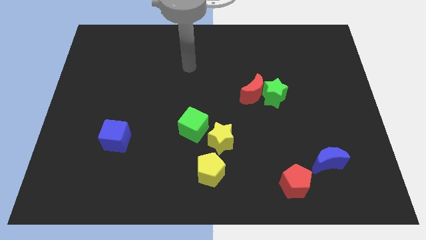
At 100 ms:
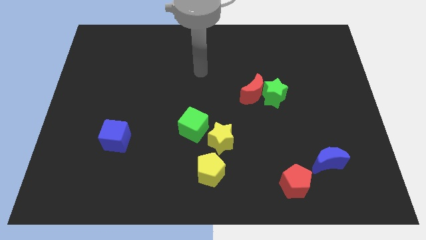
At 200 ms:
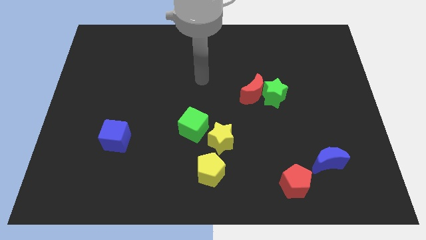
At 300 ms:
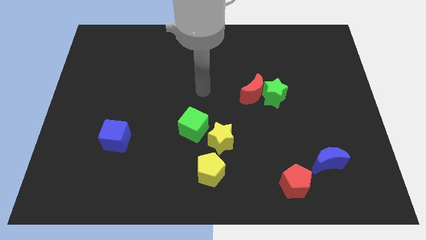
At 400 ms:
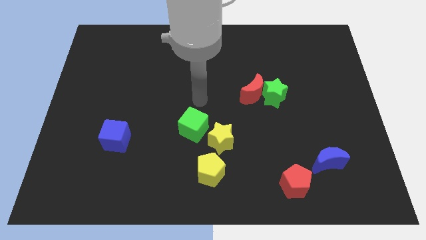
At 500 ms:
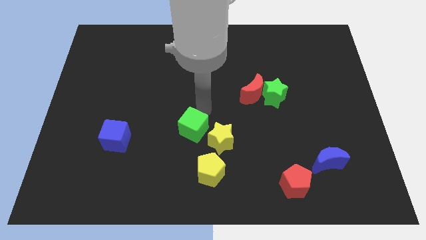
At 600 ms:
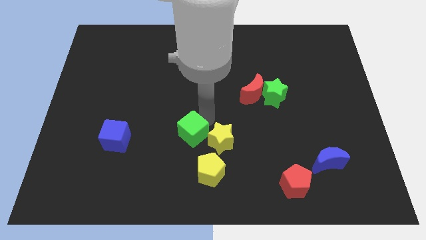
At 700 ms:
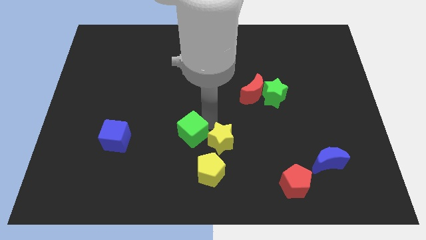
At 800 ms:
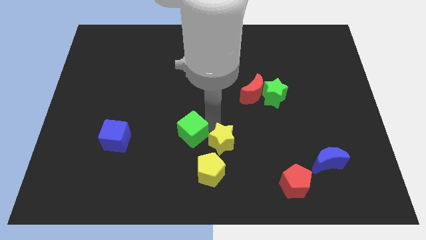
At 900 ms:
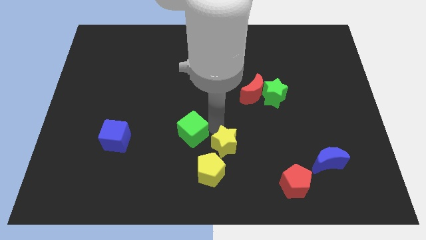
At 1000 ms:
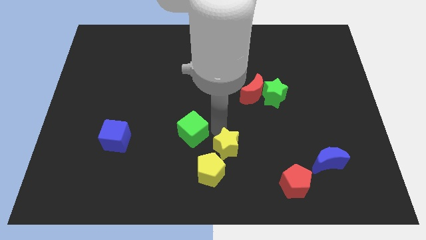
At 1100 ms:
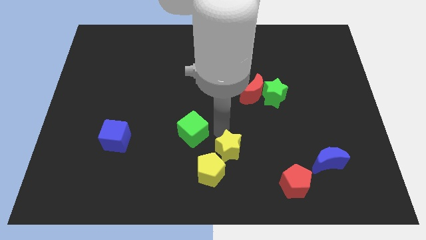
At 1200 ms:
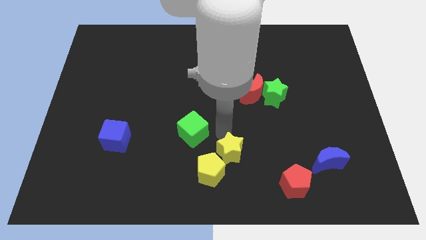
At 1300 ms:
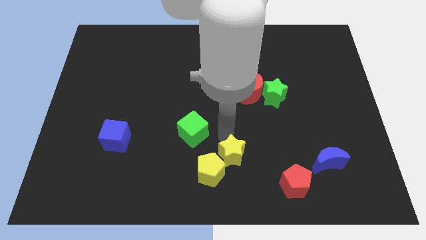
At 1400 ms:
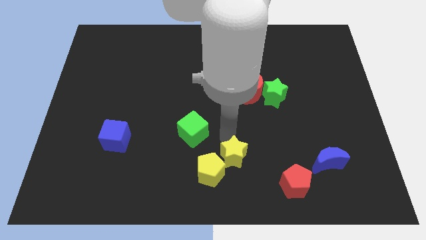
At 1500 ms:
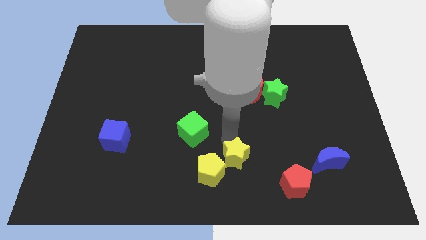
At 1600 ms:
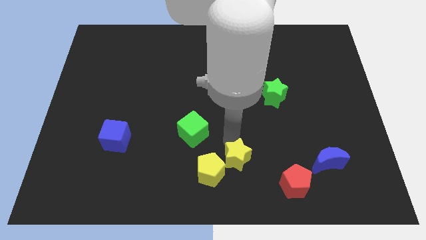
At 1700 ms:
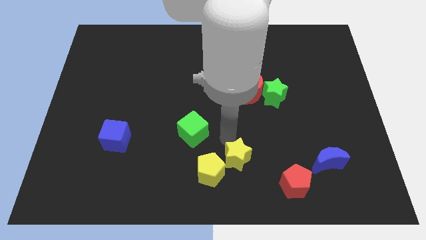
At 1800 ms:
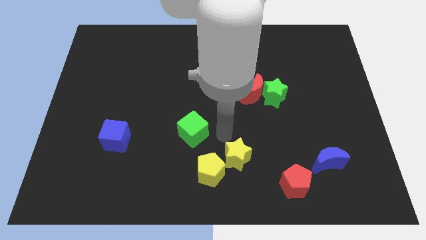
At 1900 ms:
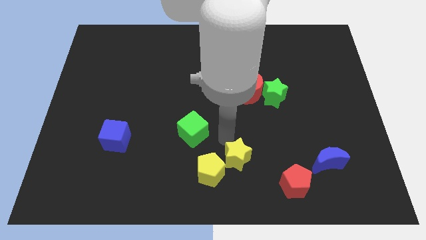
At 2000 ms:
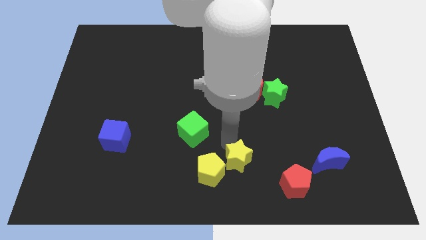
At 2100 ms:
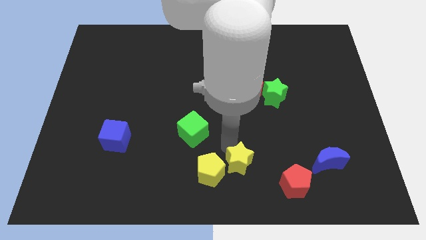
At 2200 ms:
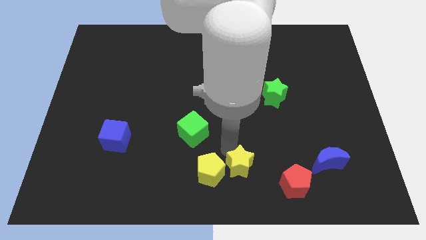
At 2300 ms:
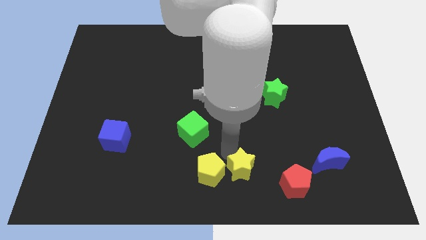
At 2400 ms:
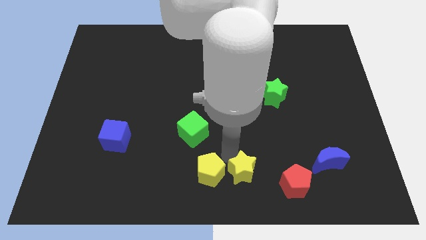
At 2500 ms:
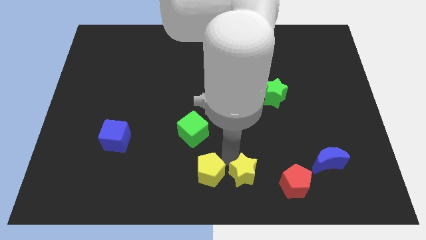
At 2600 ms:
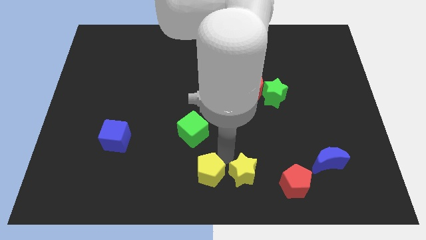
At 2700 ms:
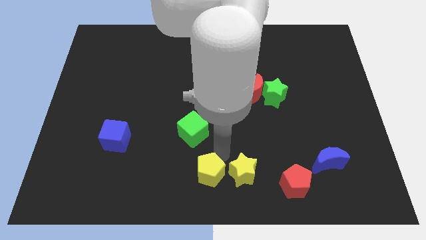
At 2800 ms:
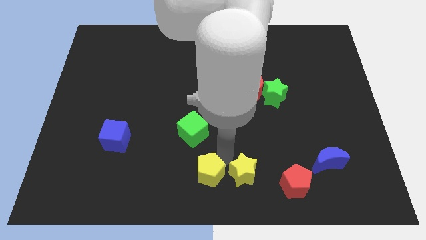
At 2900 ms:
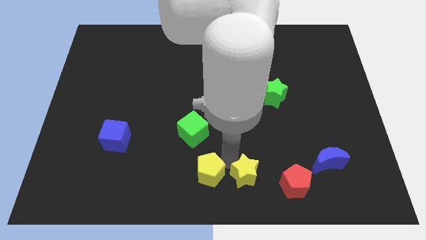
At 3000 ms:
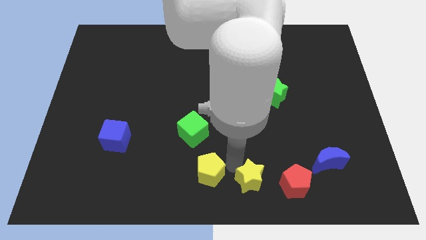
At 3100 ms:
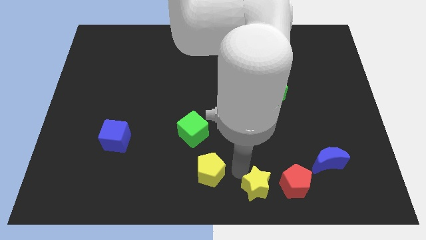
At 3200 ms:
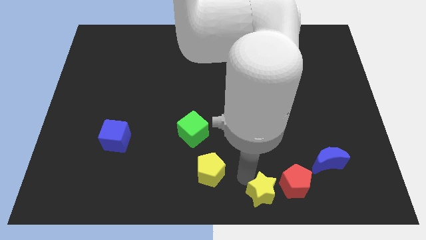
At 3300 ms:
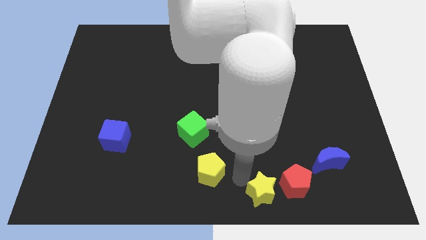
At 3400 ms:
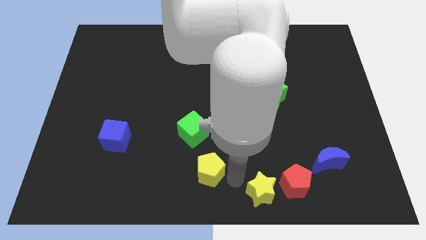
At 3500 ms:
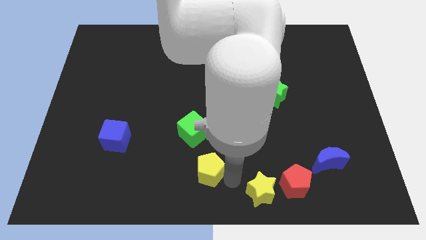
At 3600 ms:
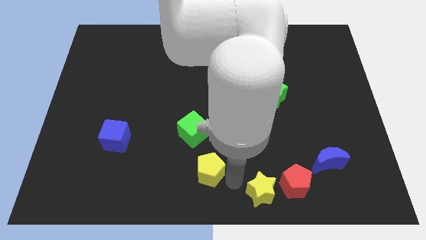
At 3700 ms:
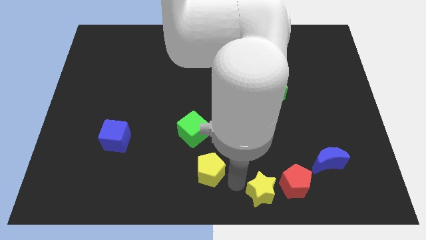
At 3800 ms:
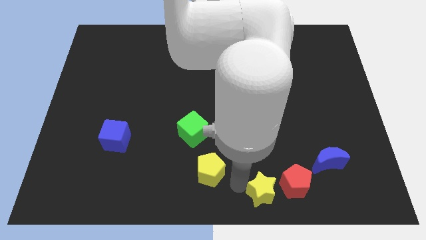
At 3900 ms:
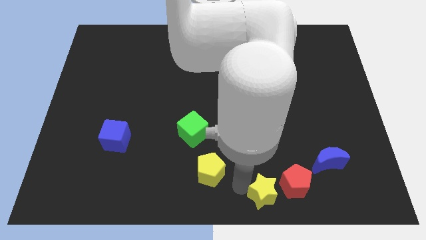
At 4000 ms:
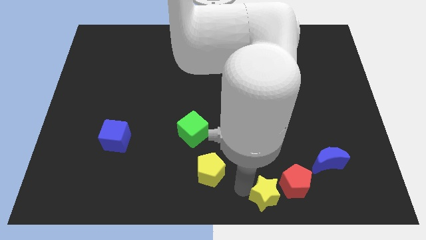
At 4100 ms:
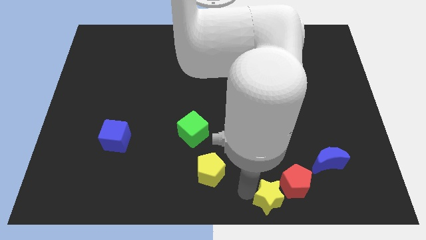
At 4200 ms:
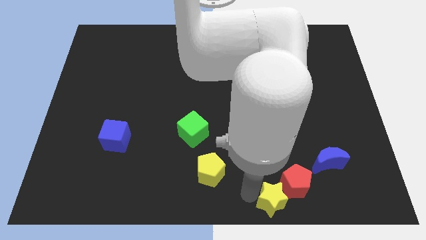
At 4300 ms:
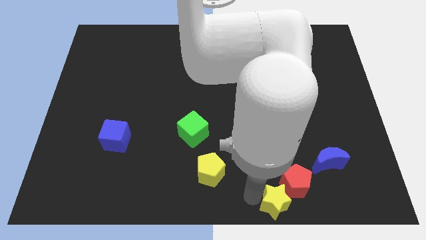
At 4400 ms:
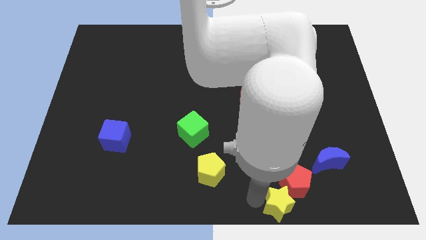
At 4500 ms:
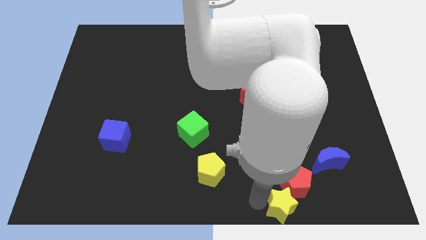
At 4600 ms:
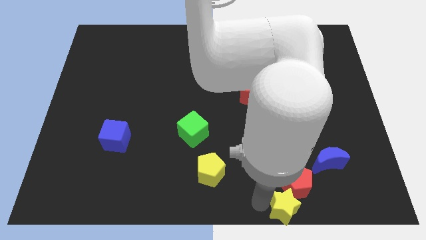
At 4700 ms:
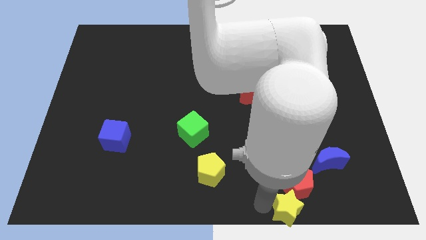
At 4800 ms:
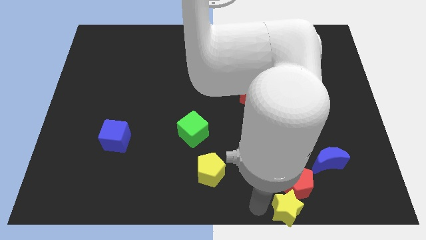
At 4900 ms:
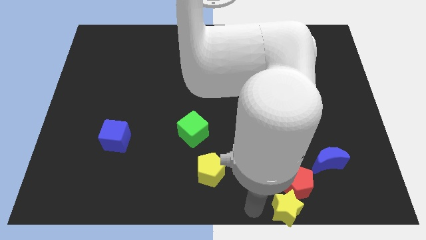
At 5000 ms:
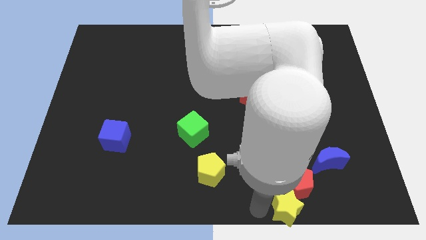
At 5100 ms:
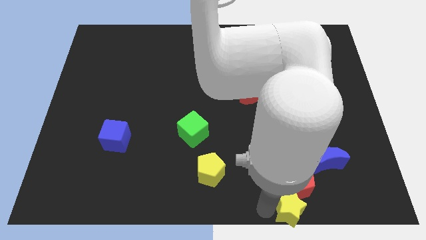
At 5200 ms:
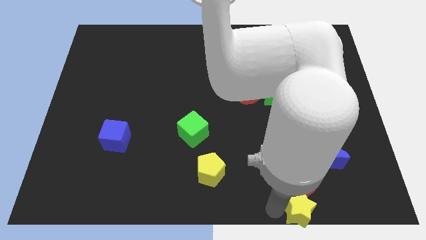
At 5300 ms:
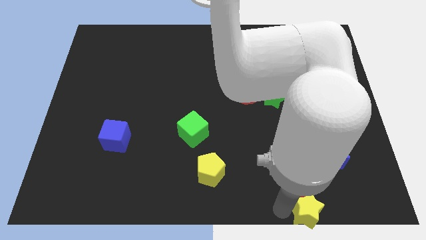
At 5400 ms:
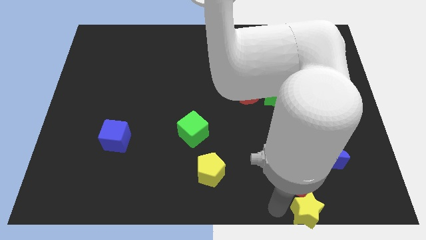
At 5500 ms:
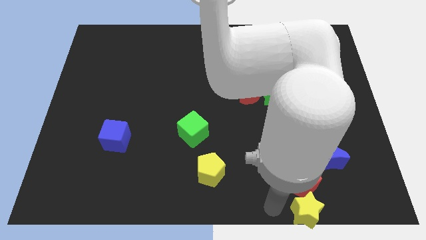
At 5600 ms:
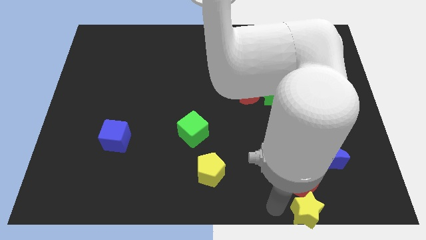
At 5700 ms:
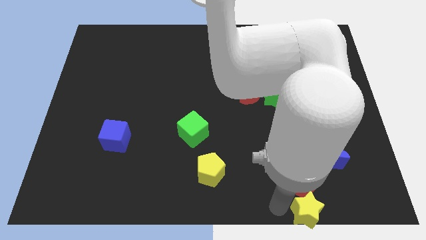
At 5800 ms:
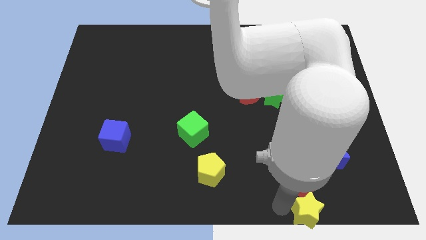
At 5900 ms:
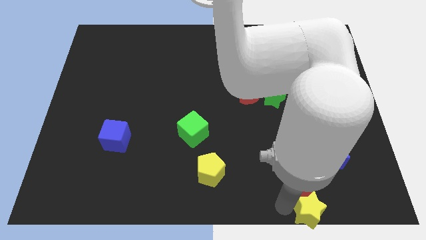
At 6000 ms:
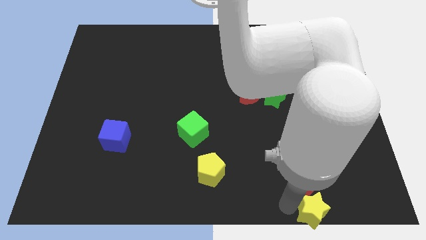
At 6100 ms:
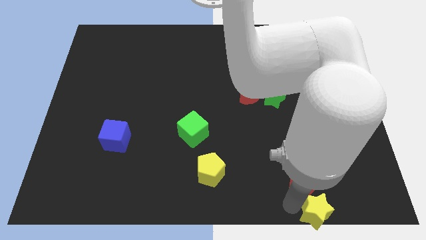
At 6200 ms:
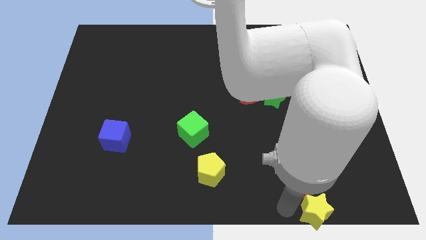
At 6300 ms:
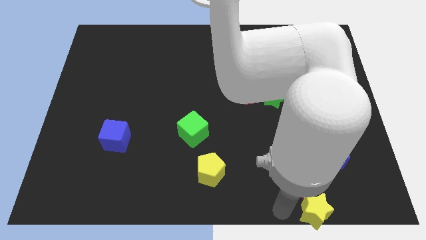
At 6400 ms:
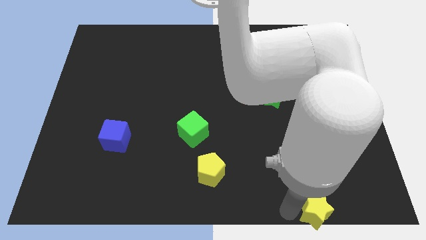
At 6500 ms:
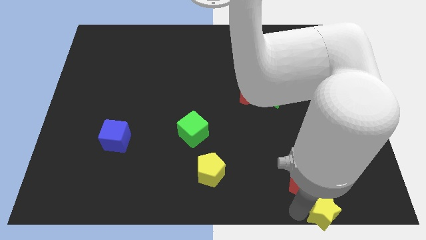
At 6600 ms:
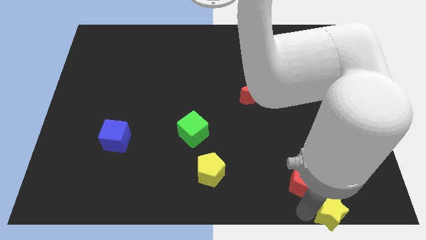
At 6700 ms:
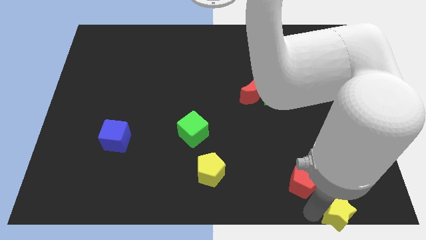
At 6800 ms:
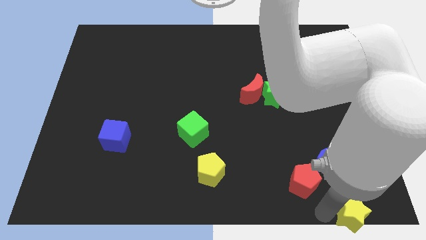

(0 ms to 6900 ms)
push the yellow star to the bottom right
